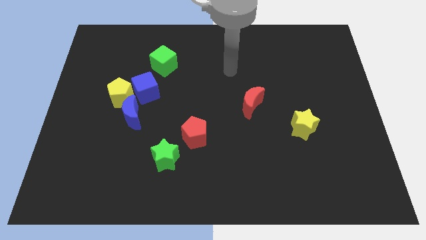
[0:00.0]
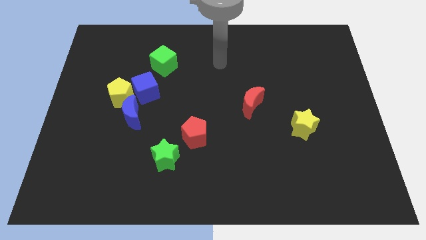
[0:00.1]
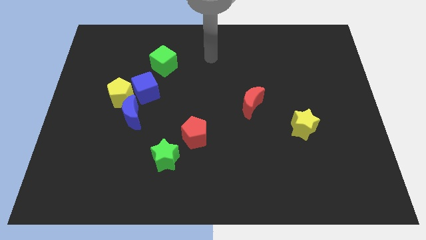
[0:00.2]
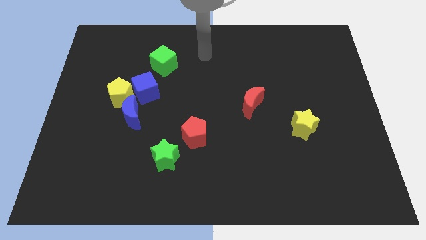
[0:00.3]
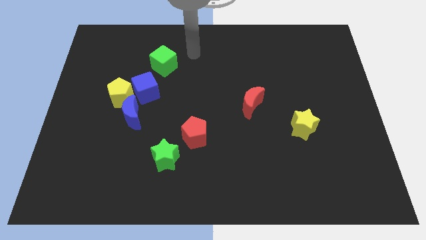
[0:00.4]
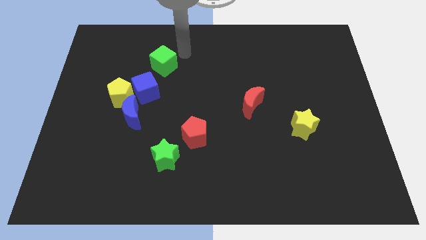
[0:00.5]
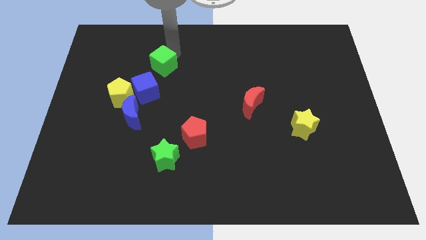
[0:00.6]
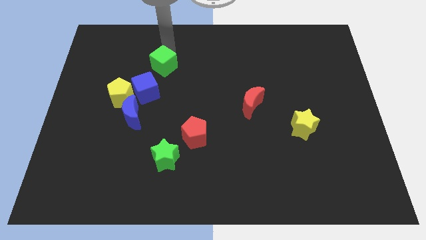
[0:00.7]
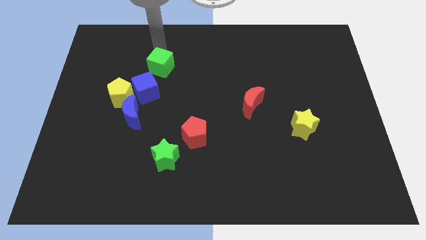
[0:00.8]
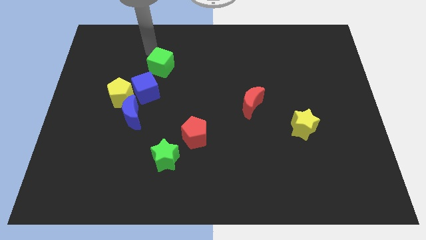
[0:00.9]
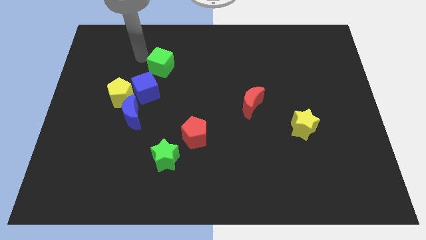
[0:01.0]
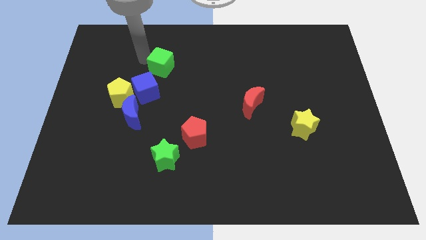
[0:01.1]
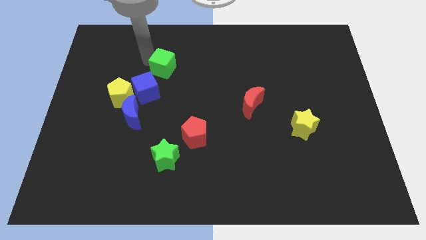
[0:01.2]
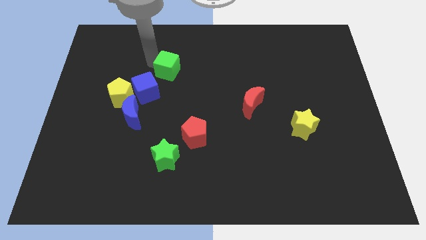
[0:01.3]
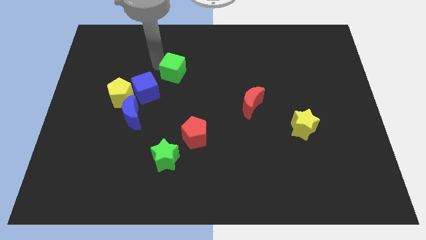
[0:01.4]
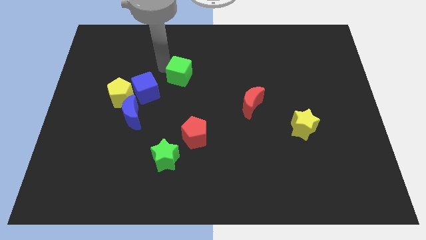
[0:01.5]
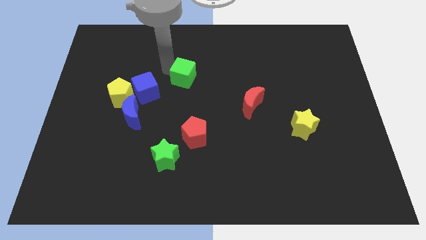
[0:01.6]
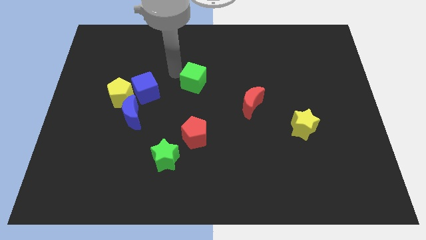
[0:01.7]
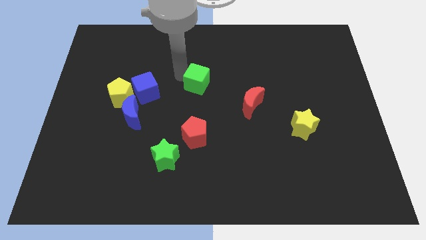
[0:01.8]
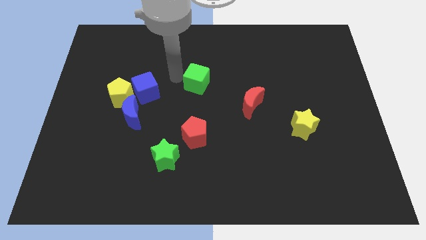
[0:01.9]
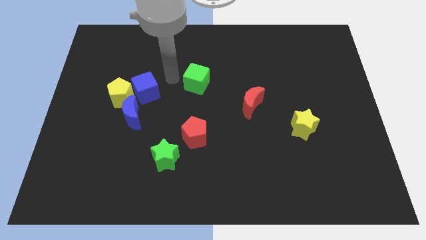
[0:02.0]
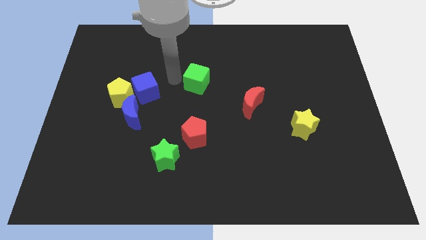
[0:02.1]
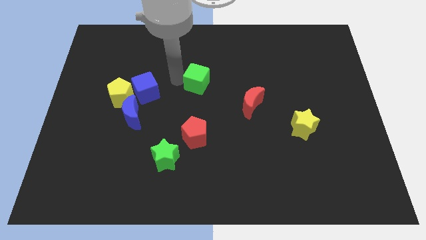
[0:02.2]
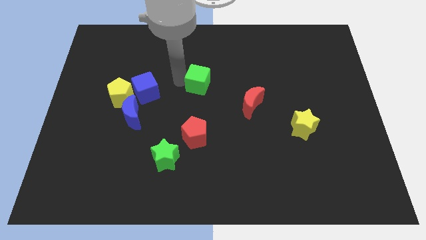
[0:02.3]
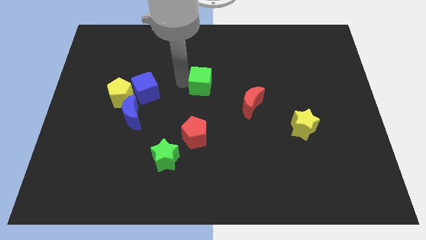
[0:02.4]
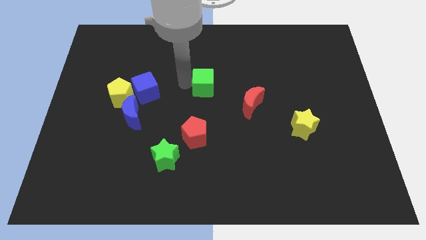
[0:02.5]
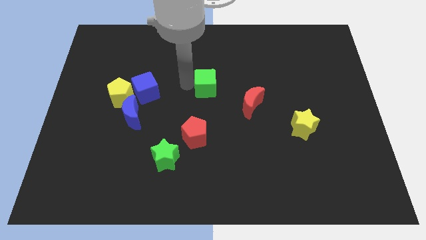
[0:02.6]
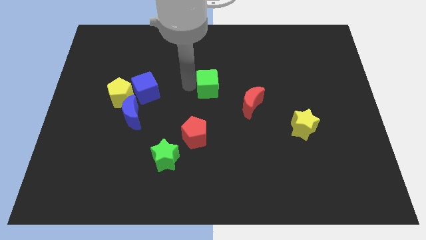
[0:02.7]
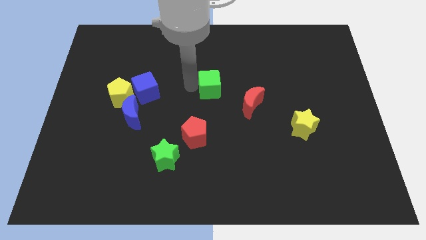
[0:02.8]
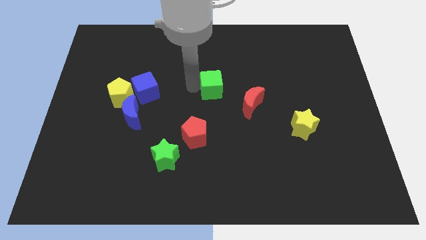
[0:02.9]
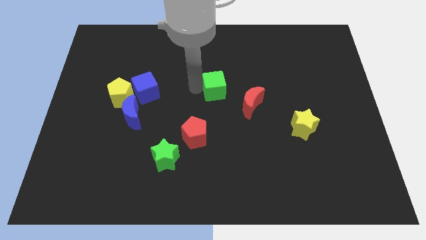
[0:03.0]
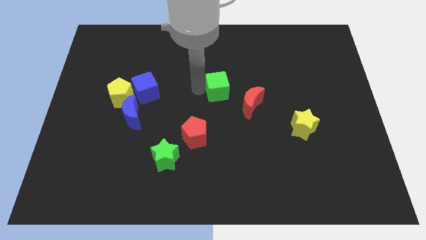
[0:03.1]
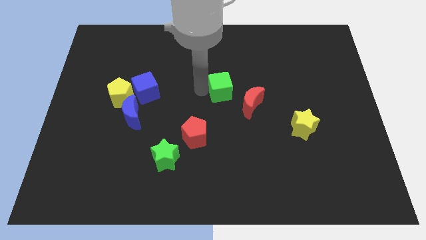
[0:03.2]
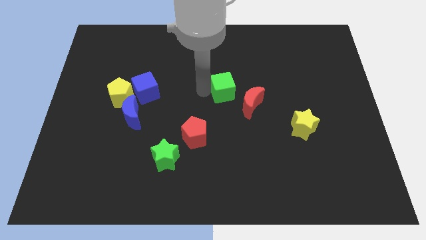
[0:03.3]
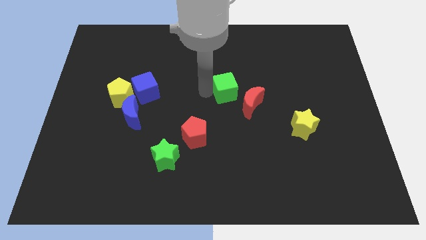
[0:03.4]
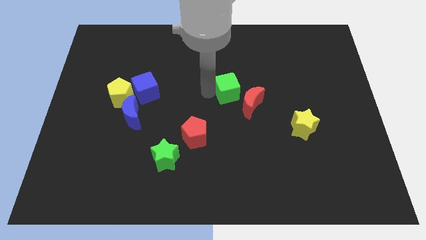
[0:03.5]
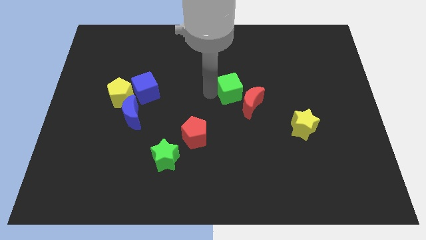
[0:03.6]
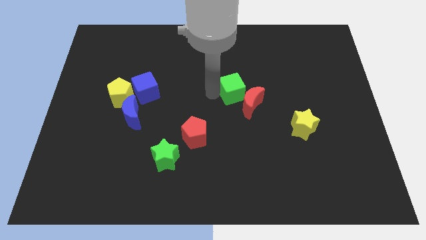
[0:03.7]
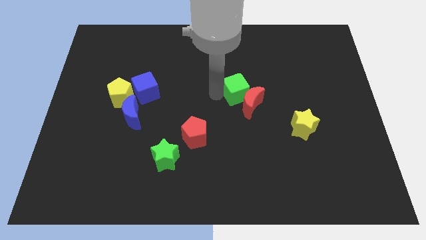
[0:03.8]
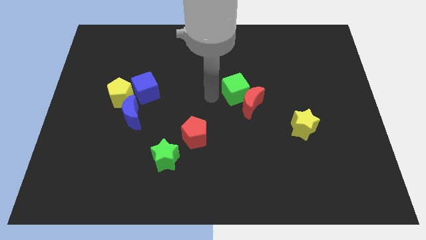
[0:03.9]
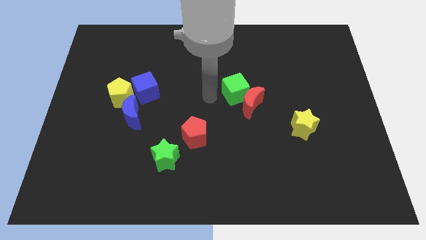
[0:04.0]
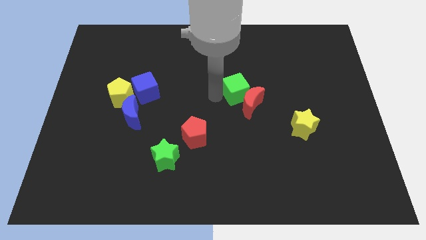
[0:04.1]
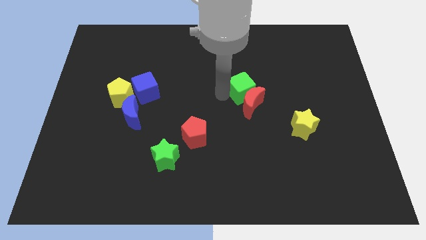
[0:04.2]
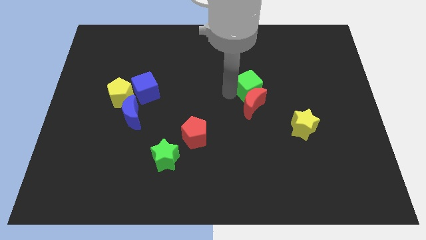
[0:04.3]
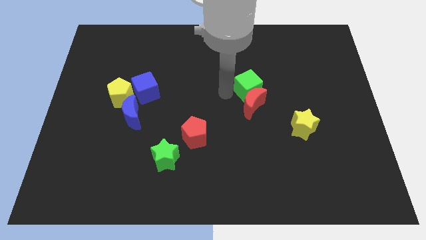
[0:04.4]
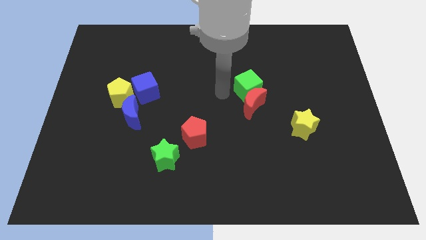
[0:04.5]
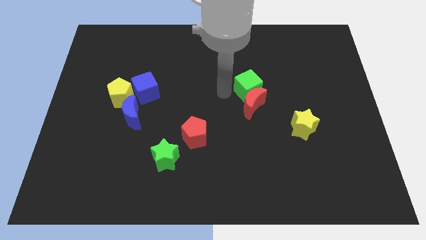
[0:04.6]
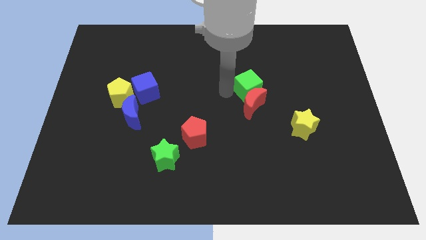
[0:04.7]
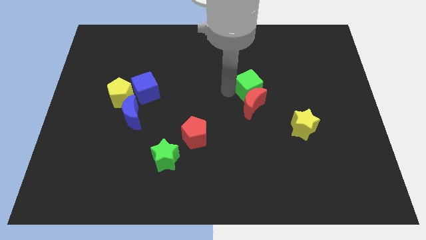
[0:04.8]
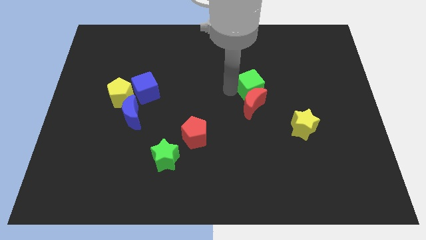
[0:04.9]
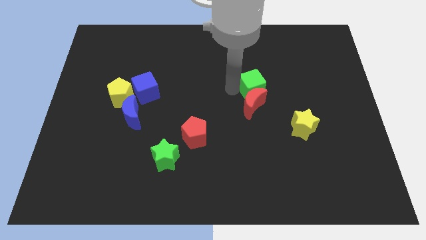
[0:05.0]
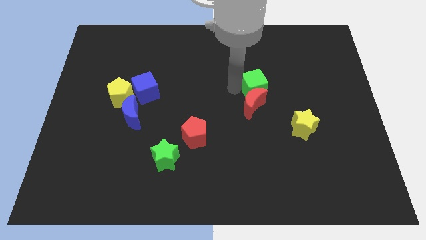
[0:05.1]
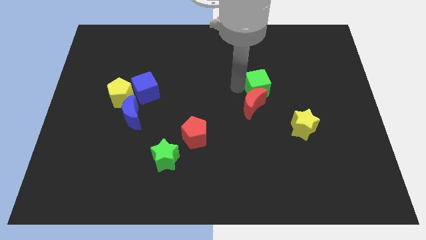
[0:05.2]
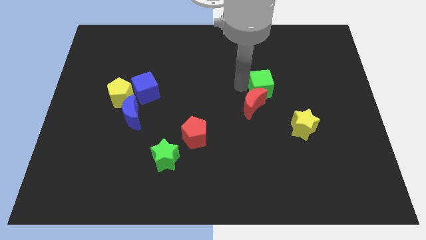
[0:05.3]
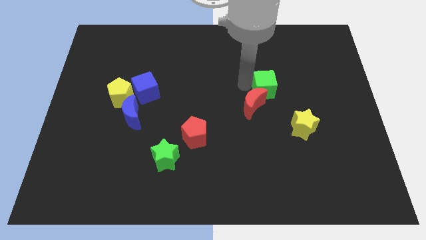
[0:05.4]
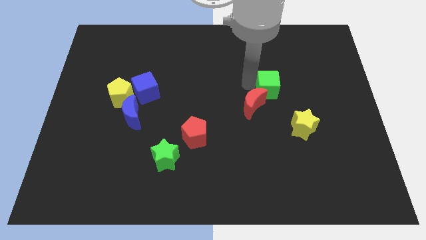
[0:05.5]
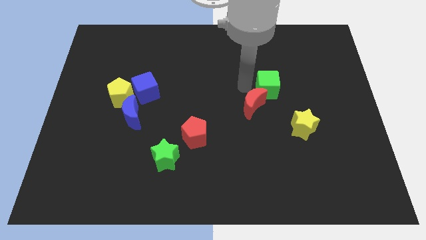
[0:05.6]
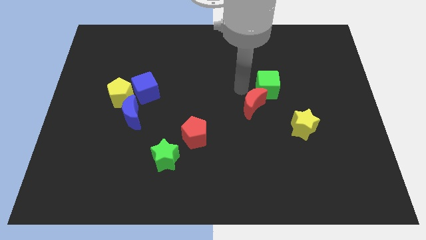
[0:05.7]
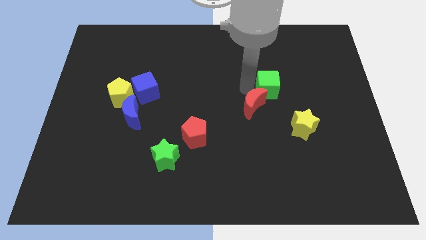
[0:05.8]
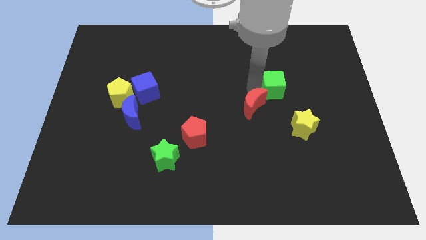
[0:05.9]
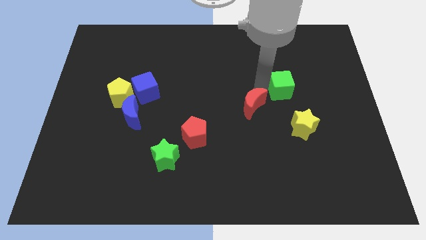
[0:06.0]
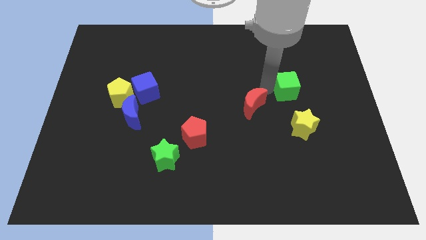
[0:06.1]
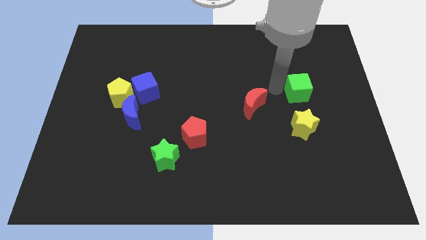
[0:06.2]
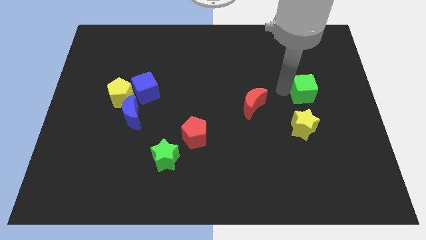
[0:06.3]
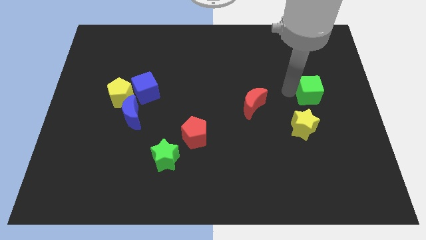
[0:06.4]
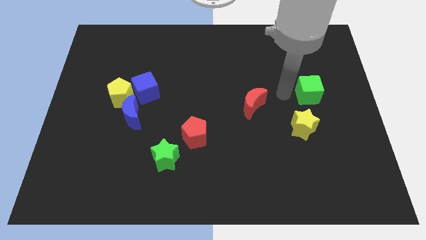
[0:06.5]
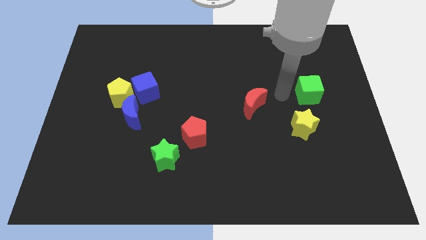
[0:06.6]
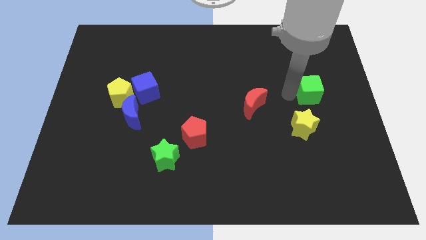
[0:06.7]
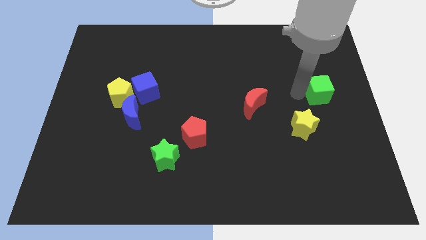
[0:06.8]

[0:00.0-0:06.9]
put the green cube to the right side
